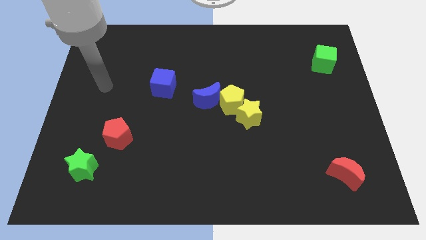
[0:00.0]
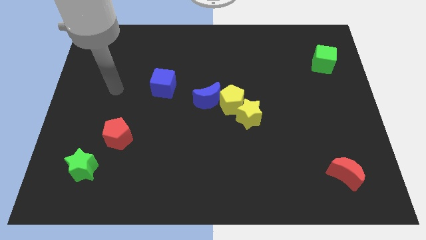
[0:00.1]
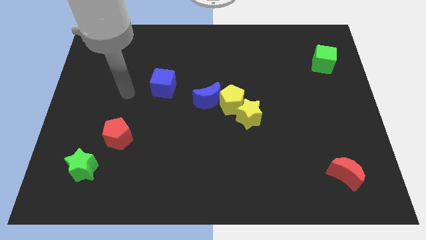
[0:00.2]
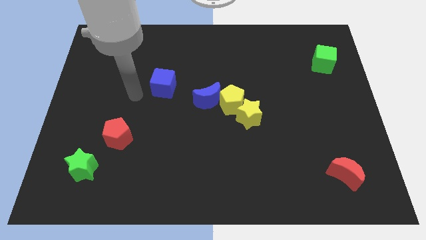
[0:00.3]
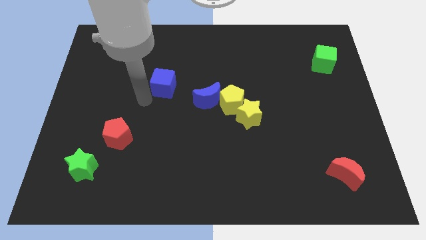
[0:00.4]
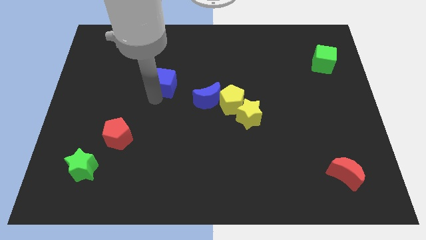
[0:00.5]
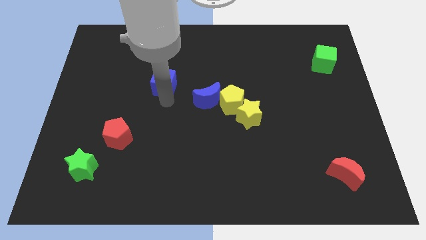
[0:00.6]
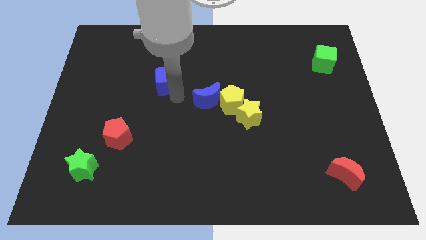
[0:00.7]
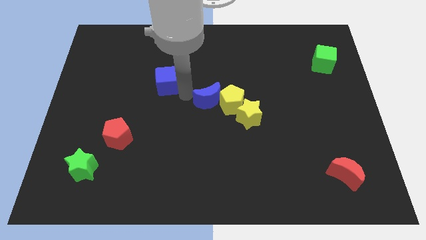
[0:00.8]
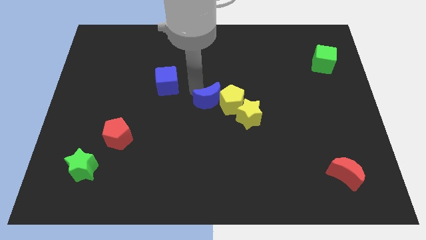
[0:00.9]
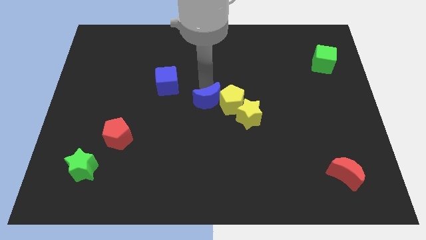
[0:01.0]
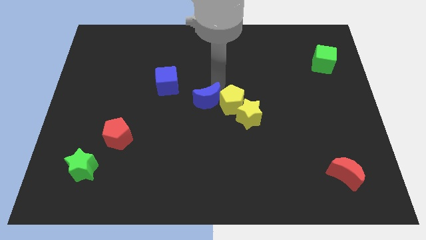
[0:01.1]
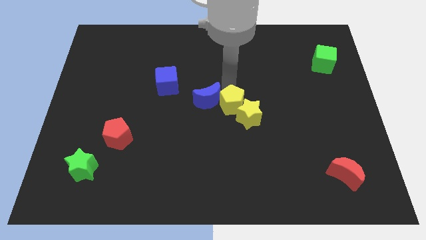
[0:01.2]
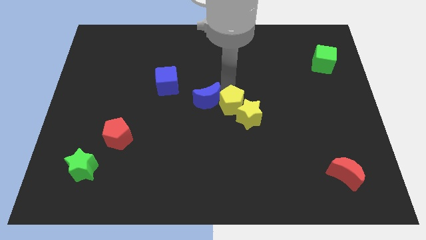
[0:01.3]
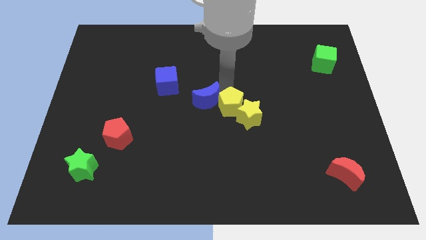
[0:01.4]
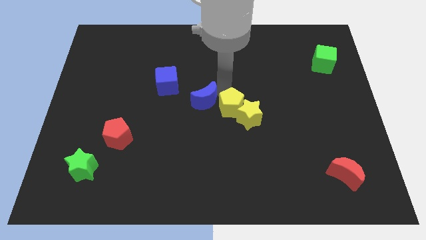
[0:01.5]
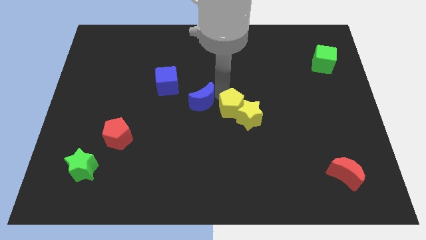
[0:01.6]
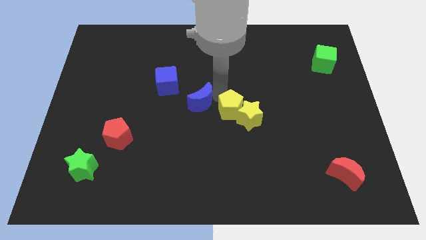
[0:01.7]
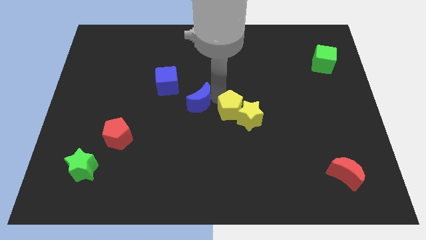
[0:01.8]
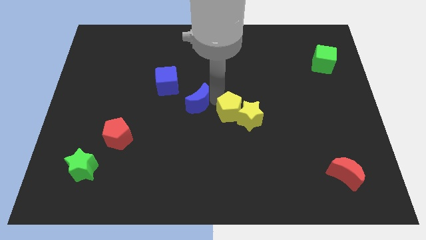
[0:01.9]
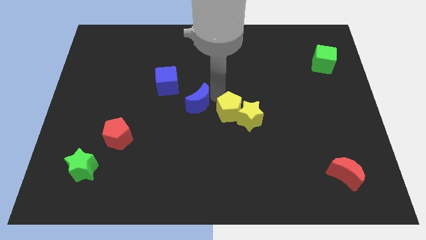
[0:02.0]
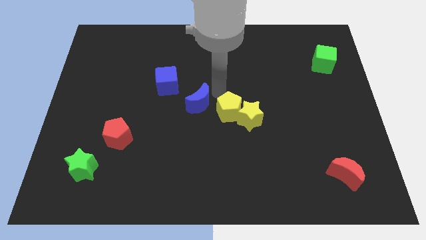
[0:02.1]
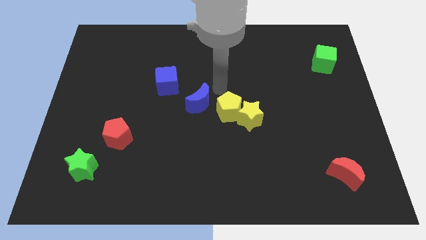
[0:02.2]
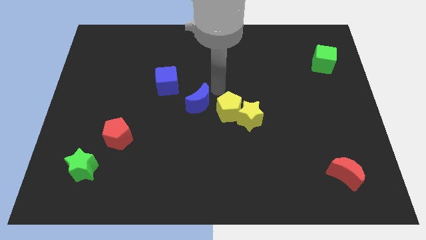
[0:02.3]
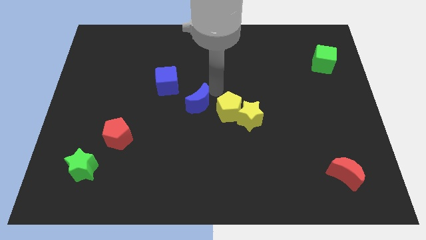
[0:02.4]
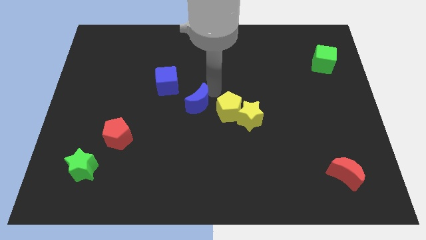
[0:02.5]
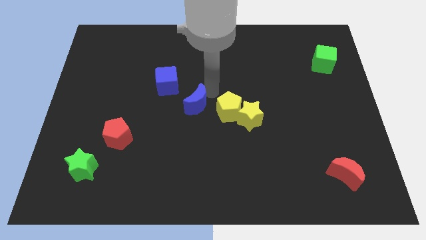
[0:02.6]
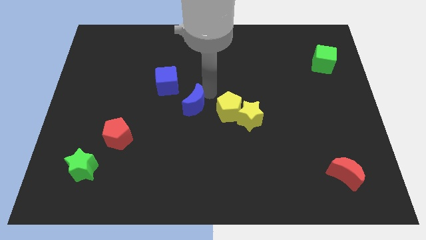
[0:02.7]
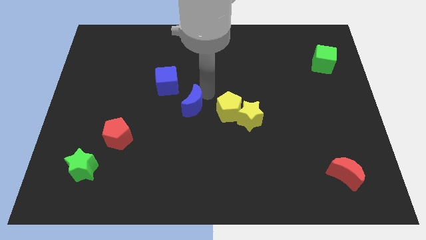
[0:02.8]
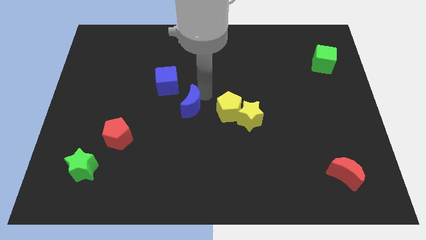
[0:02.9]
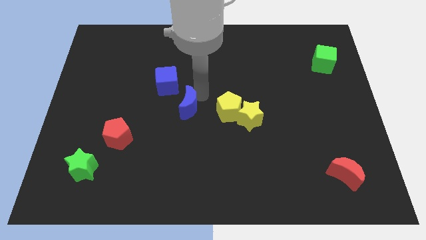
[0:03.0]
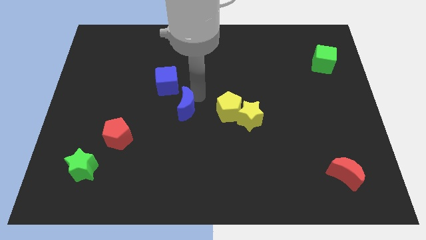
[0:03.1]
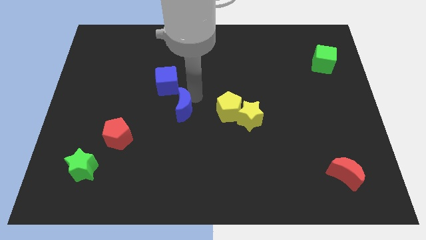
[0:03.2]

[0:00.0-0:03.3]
move the blue moon away from the yellow pentagon

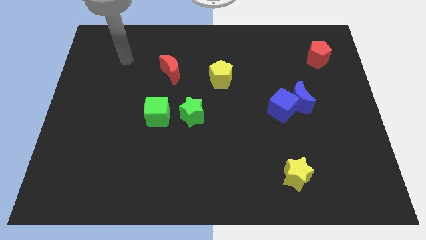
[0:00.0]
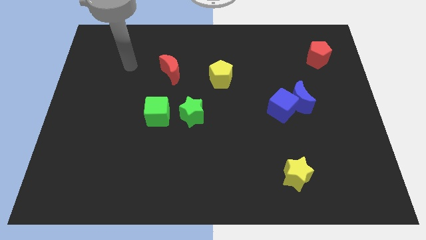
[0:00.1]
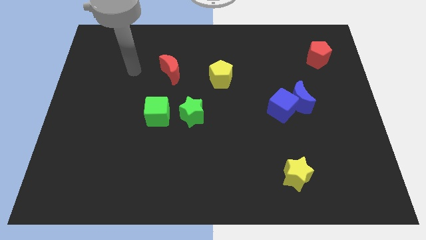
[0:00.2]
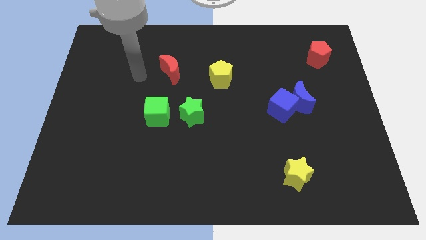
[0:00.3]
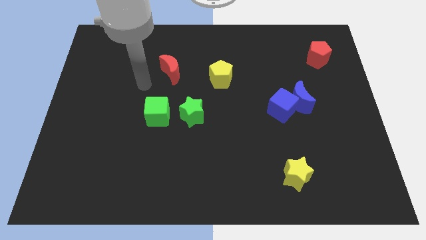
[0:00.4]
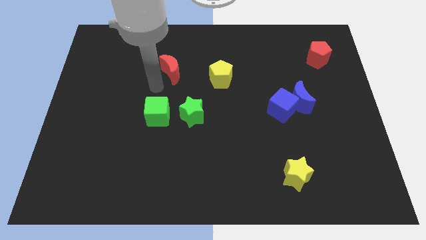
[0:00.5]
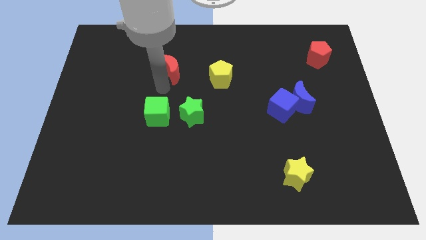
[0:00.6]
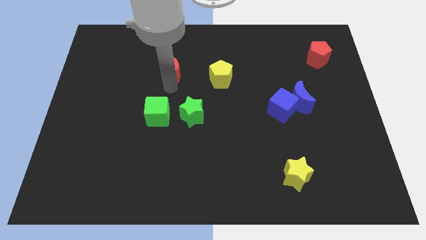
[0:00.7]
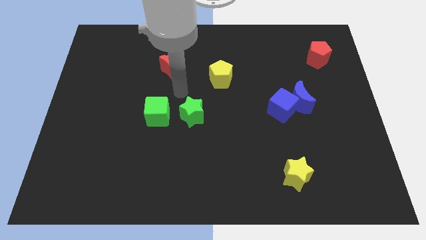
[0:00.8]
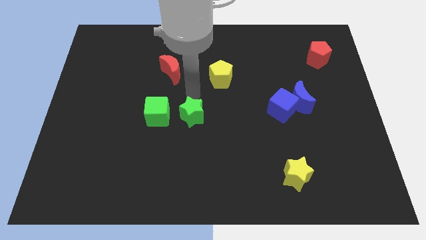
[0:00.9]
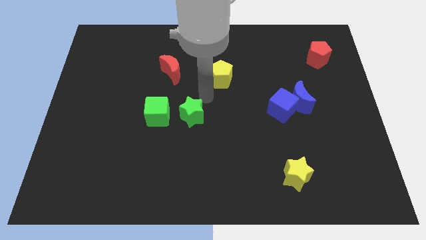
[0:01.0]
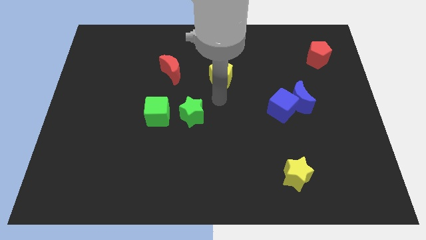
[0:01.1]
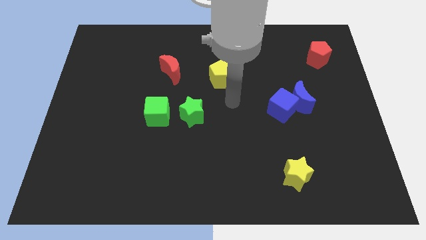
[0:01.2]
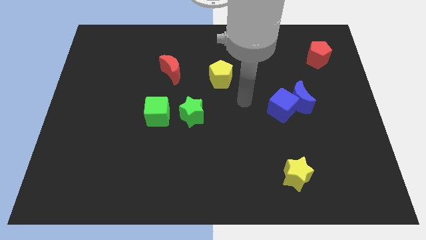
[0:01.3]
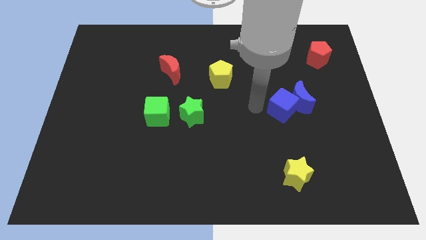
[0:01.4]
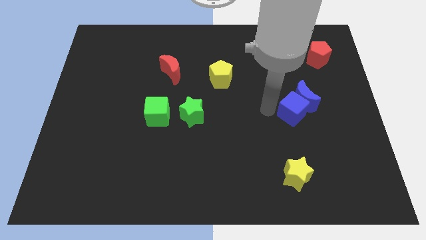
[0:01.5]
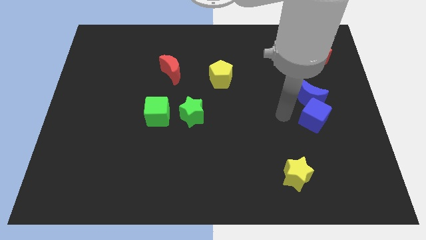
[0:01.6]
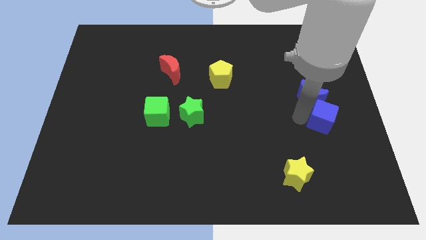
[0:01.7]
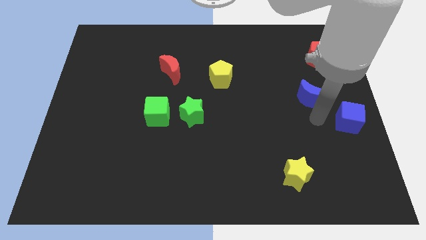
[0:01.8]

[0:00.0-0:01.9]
separate the blue moon from the blue cube

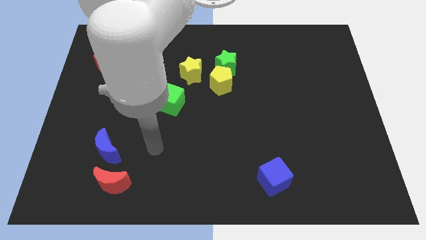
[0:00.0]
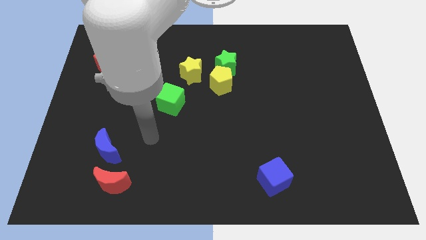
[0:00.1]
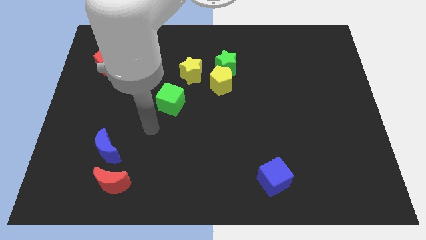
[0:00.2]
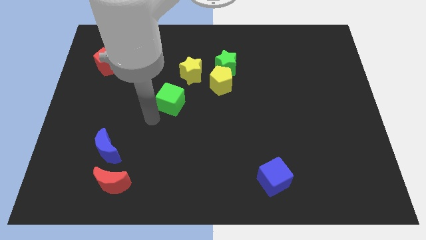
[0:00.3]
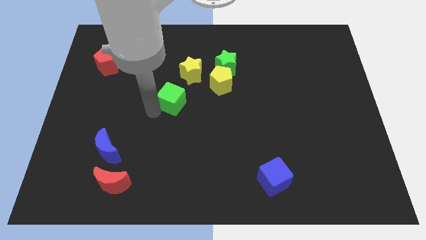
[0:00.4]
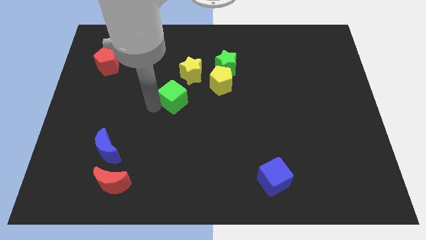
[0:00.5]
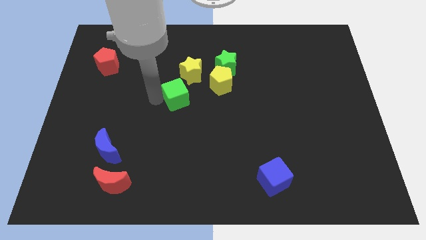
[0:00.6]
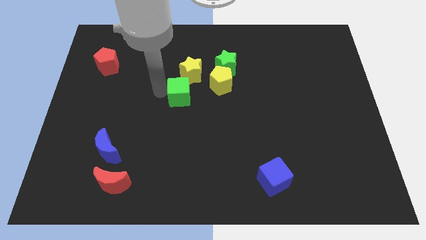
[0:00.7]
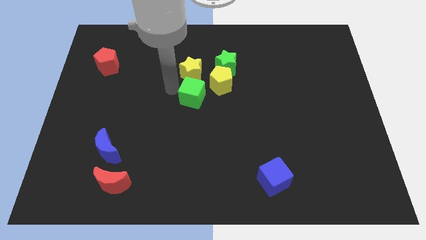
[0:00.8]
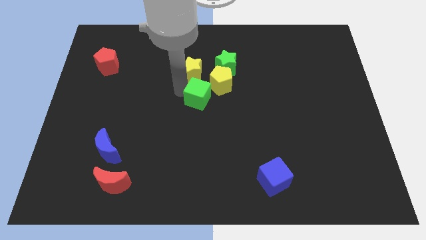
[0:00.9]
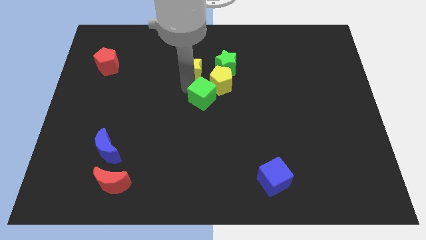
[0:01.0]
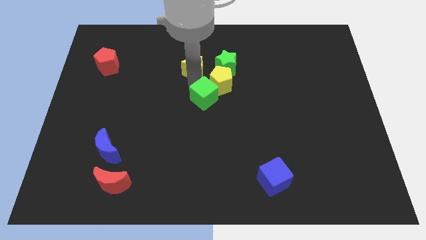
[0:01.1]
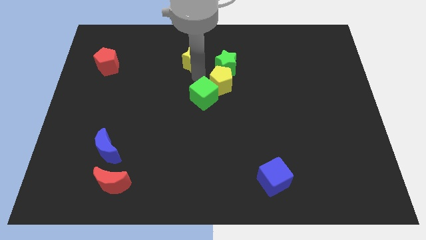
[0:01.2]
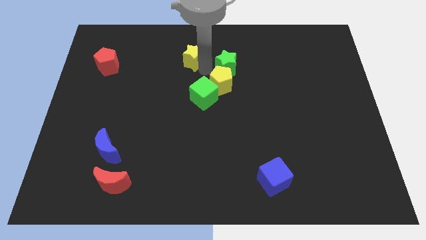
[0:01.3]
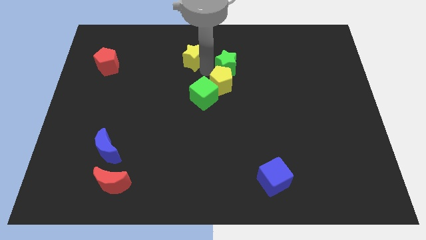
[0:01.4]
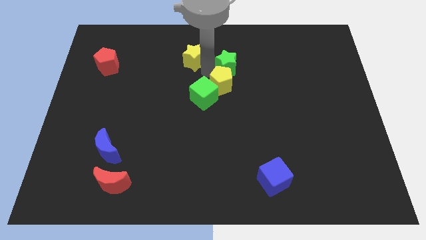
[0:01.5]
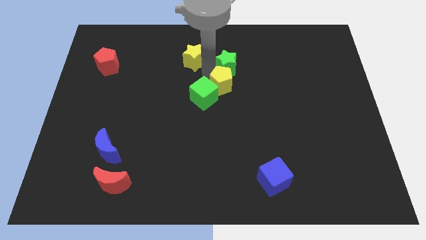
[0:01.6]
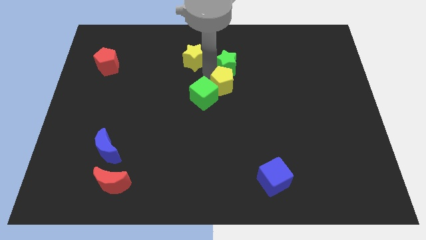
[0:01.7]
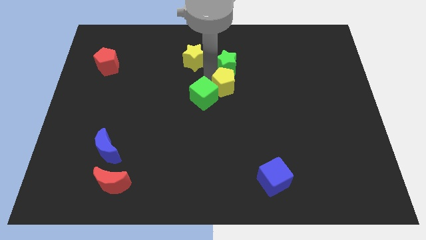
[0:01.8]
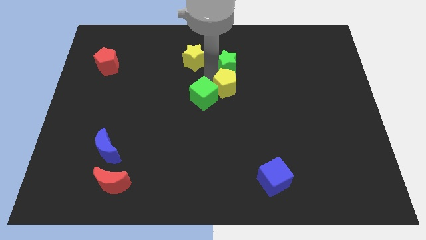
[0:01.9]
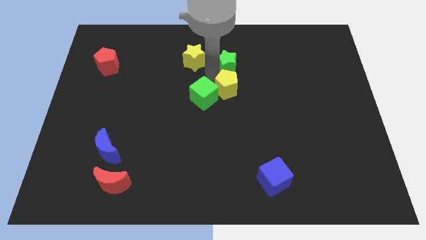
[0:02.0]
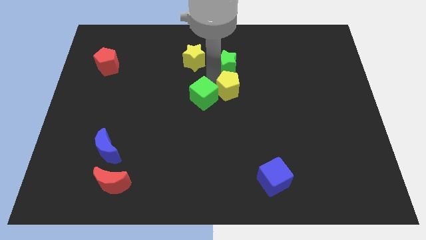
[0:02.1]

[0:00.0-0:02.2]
pull the yellow pentagon apart from the green star and yellow star

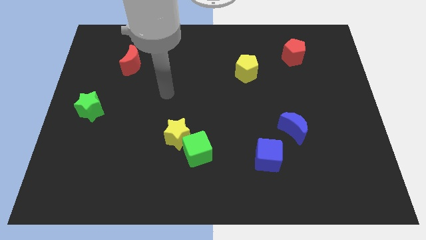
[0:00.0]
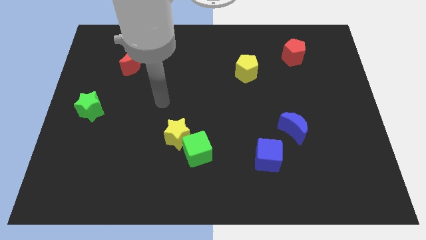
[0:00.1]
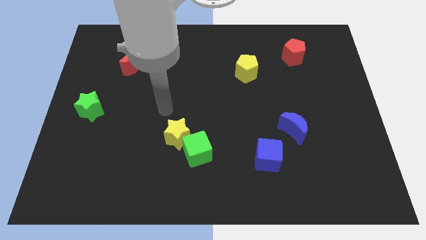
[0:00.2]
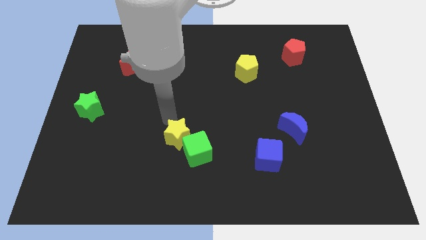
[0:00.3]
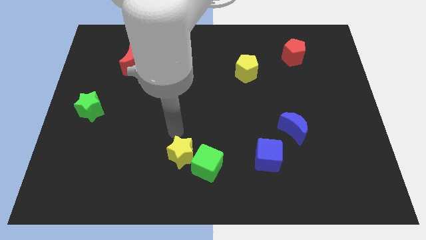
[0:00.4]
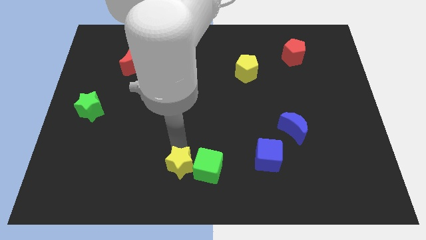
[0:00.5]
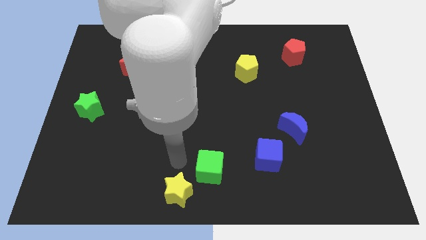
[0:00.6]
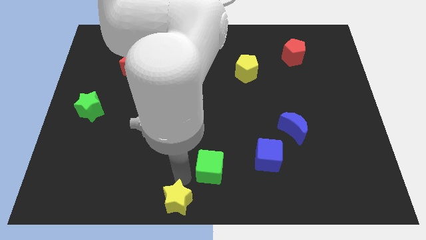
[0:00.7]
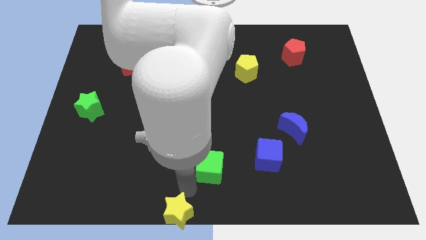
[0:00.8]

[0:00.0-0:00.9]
move the green cube away from the yellow star

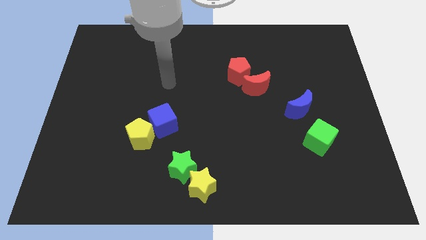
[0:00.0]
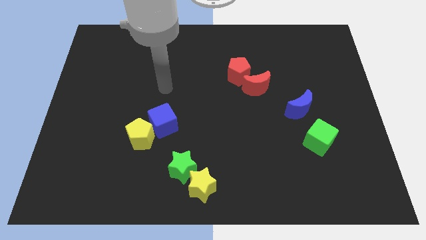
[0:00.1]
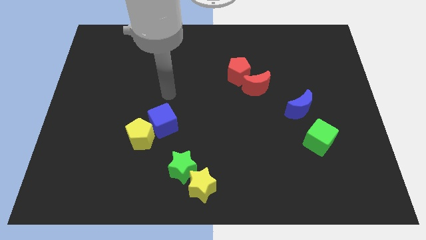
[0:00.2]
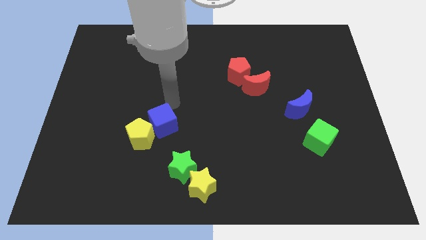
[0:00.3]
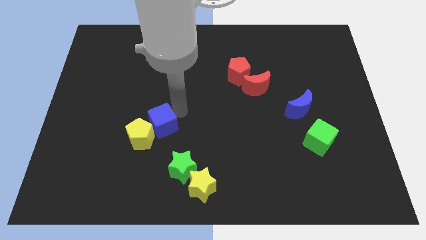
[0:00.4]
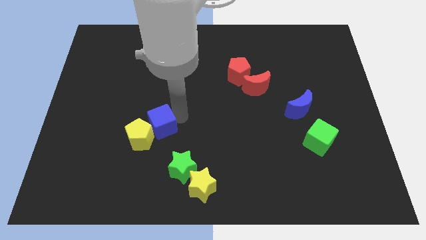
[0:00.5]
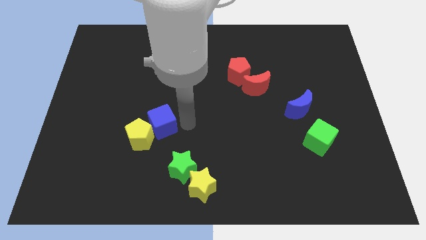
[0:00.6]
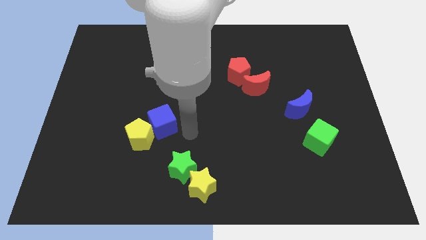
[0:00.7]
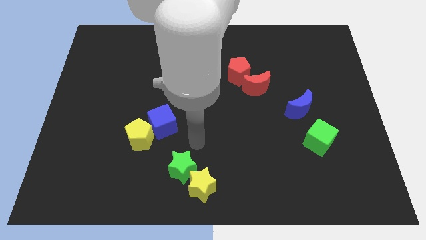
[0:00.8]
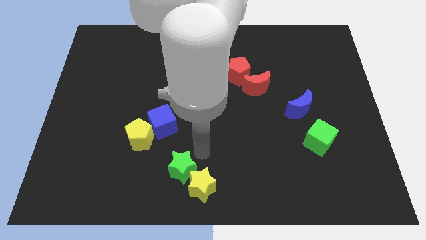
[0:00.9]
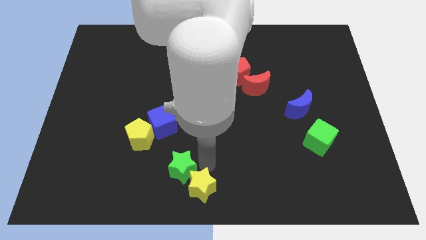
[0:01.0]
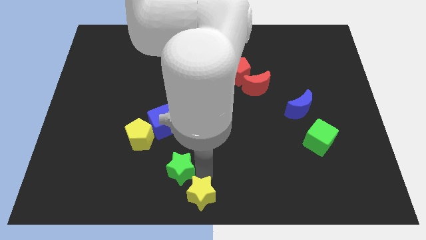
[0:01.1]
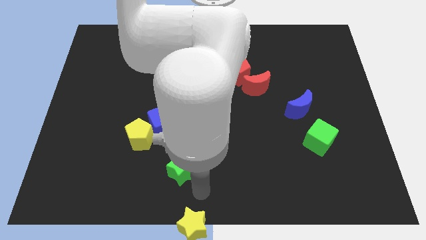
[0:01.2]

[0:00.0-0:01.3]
pull the green star apart from the yellow star
